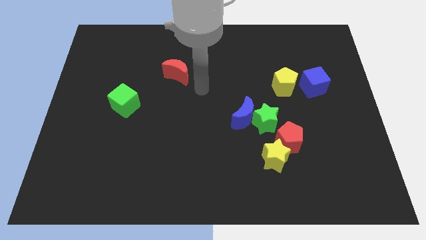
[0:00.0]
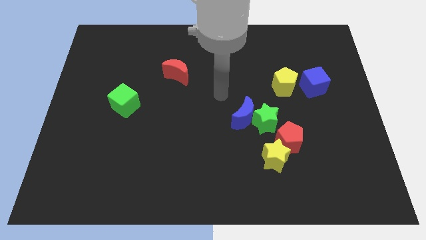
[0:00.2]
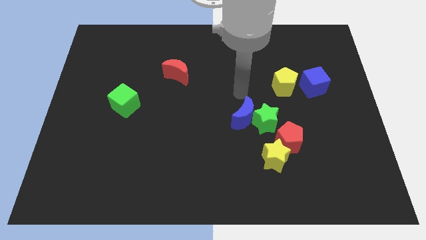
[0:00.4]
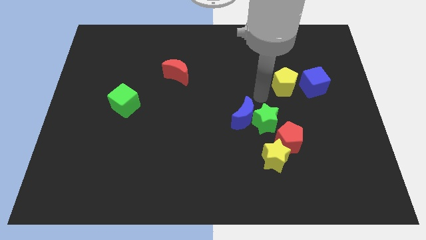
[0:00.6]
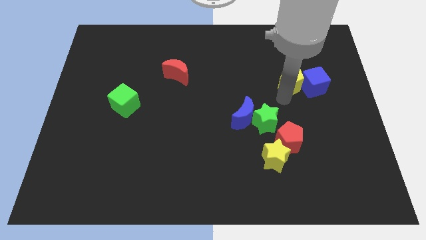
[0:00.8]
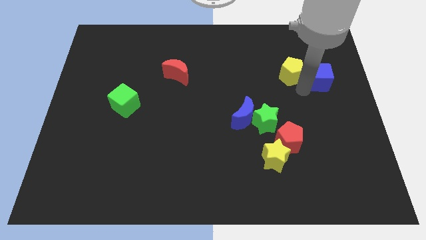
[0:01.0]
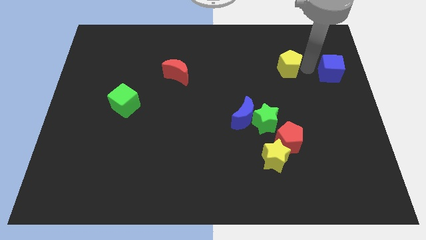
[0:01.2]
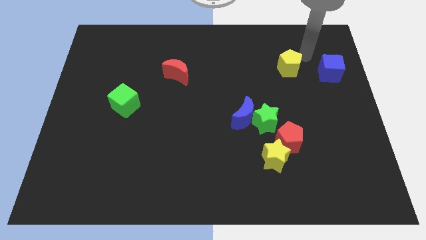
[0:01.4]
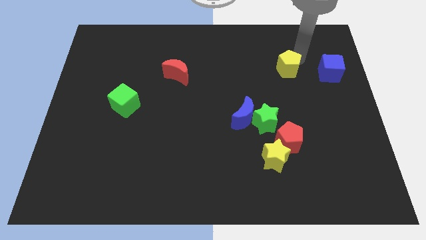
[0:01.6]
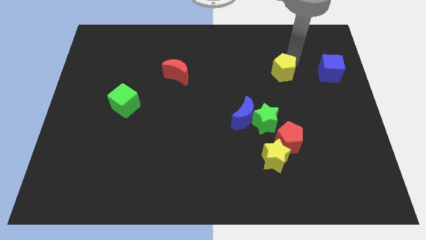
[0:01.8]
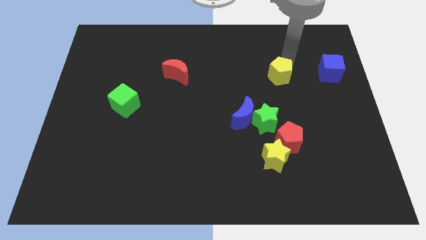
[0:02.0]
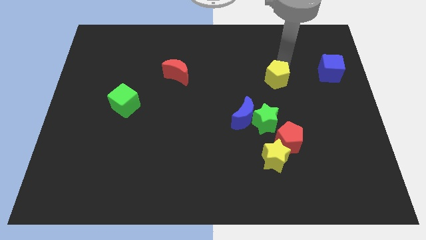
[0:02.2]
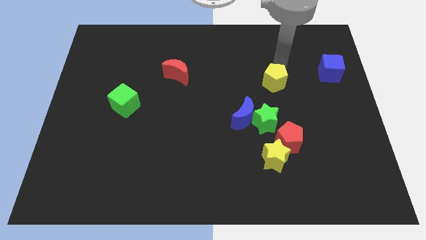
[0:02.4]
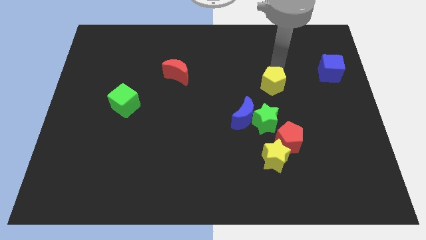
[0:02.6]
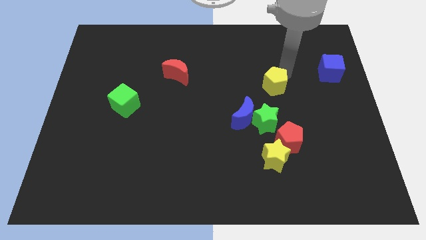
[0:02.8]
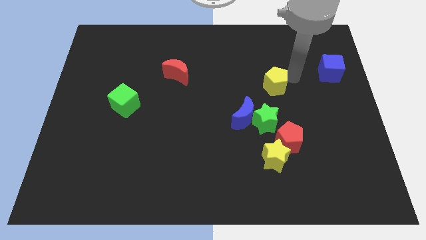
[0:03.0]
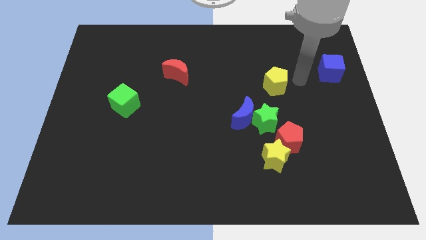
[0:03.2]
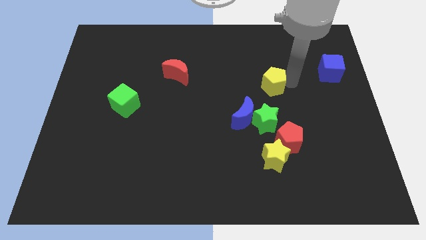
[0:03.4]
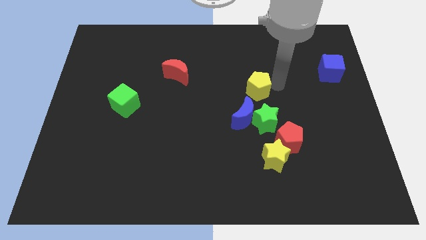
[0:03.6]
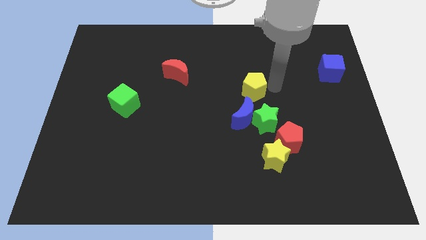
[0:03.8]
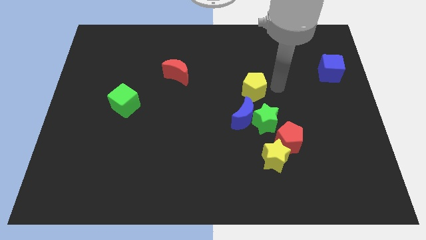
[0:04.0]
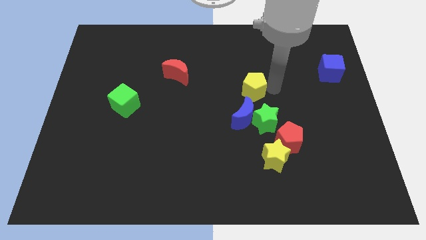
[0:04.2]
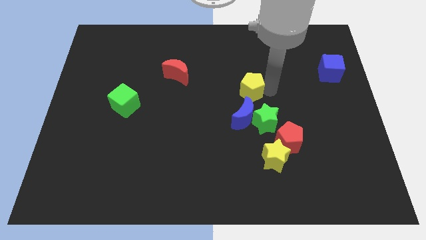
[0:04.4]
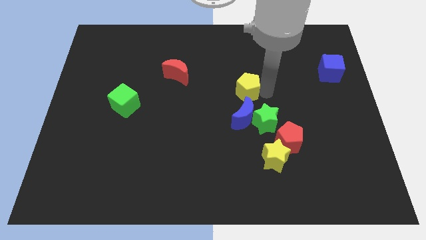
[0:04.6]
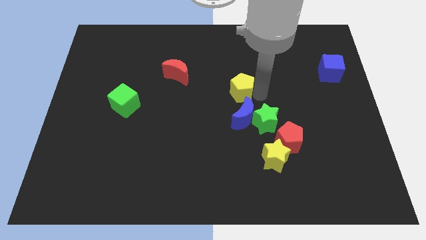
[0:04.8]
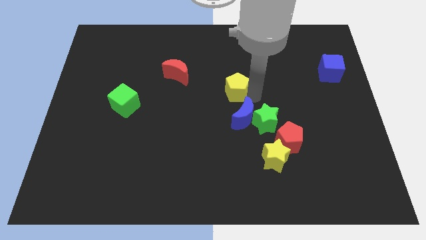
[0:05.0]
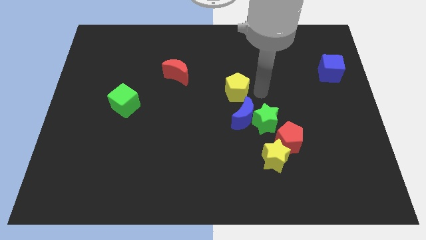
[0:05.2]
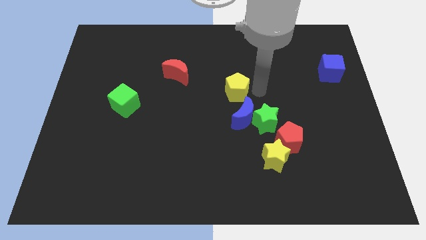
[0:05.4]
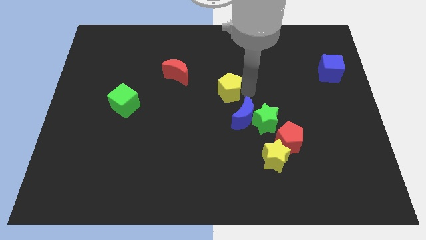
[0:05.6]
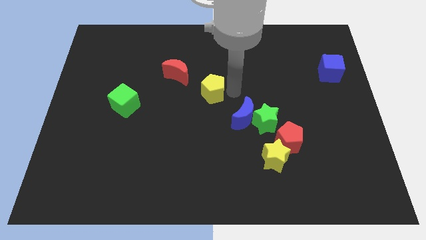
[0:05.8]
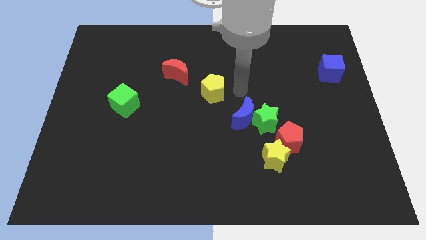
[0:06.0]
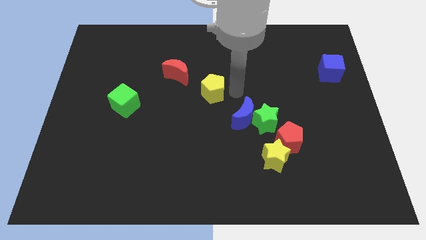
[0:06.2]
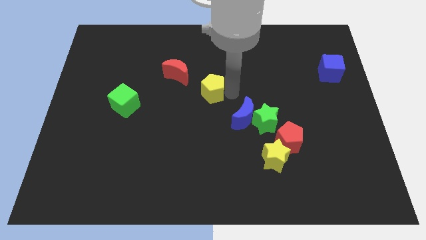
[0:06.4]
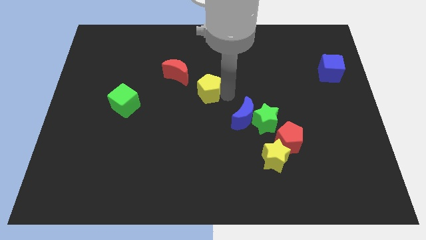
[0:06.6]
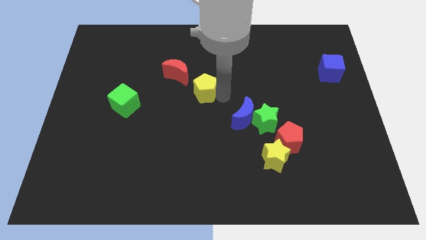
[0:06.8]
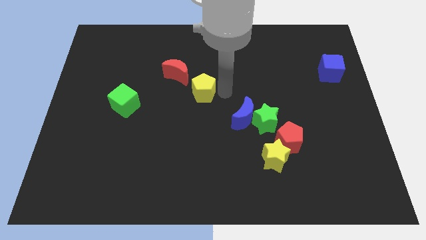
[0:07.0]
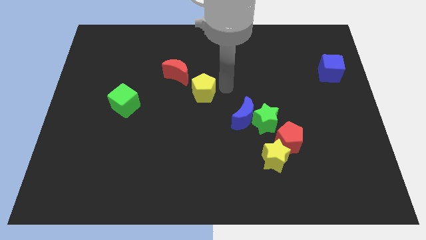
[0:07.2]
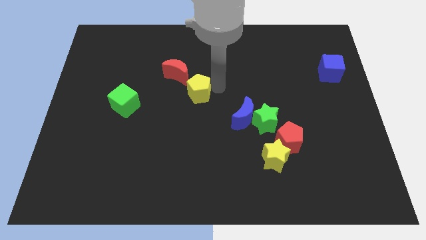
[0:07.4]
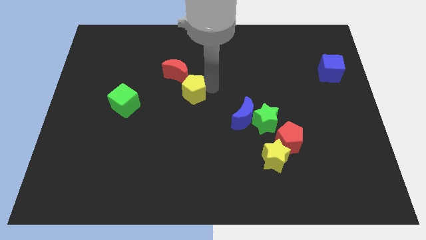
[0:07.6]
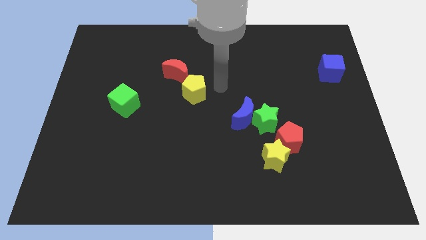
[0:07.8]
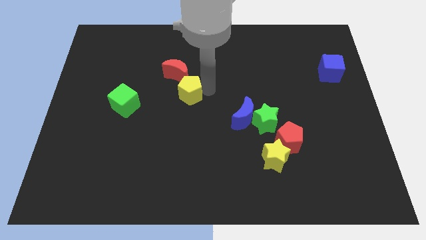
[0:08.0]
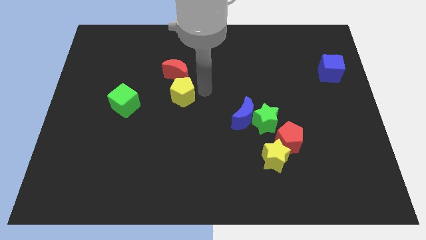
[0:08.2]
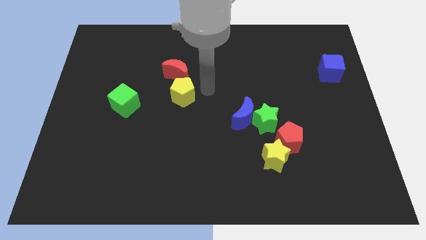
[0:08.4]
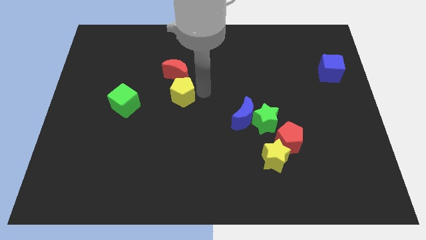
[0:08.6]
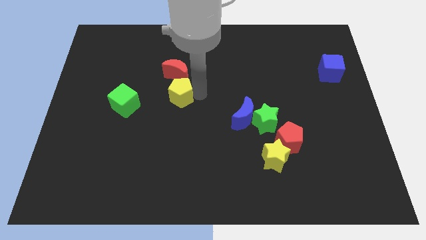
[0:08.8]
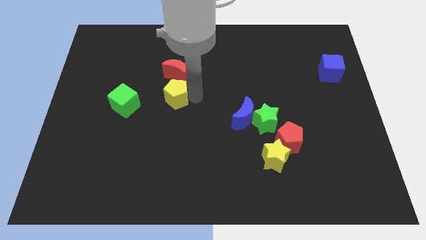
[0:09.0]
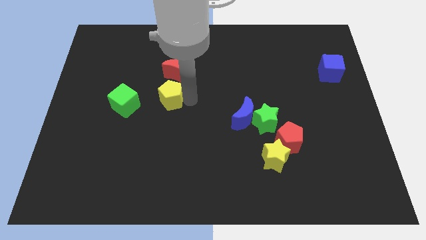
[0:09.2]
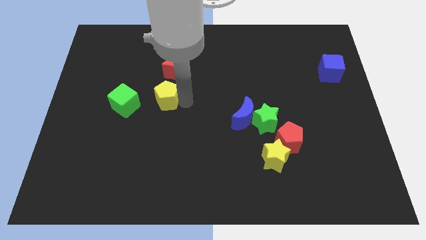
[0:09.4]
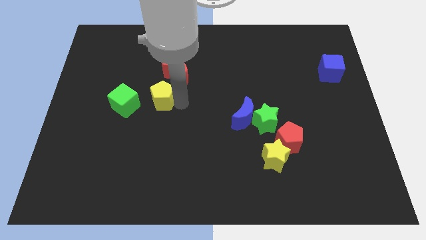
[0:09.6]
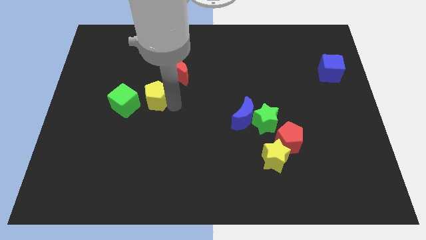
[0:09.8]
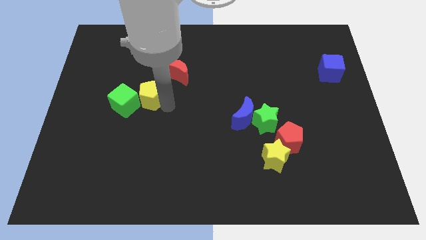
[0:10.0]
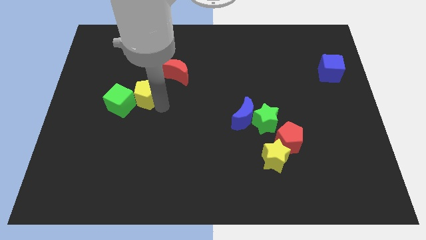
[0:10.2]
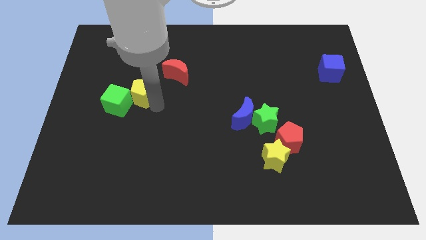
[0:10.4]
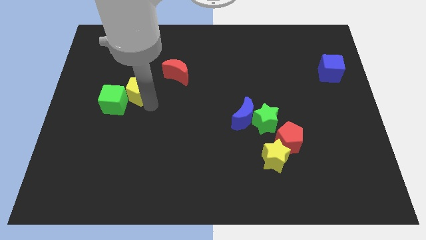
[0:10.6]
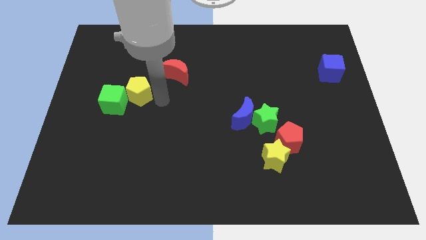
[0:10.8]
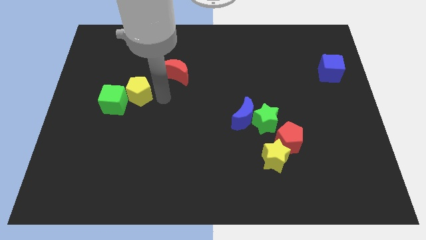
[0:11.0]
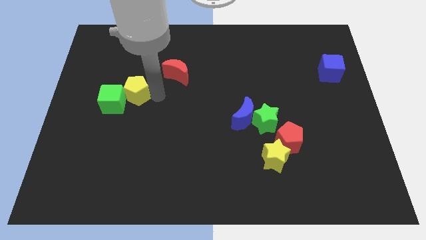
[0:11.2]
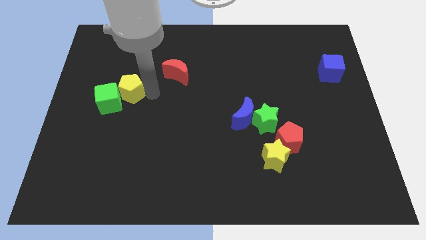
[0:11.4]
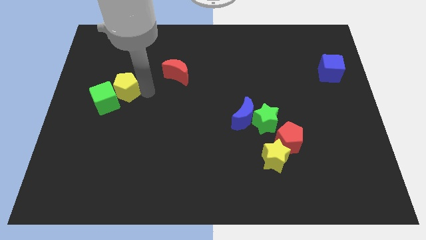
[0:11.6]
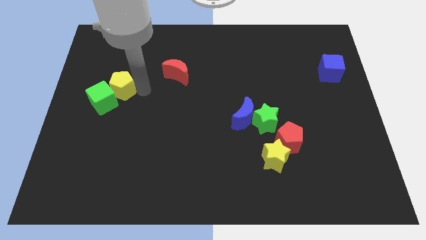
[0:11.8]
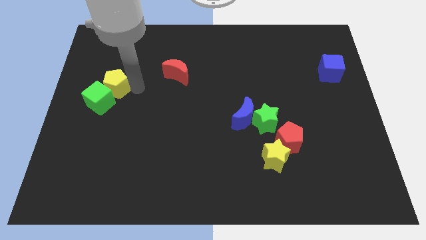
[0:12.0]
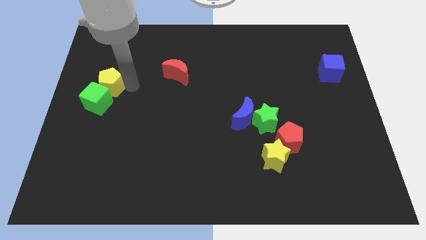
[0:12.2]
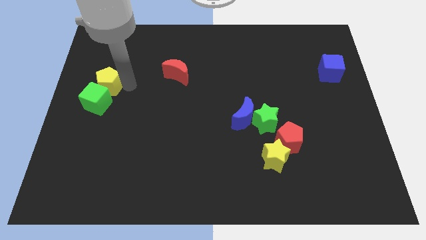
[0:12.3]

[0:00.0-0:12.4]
put the yellow pentagon to the left side
